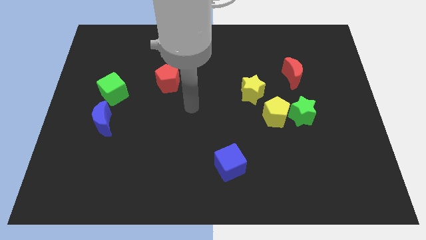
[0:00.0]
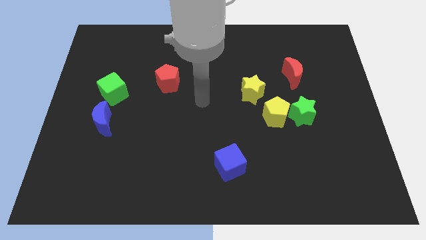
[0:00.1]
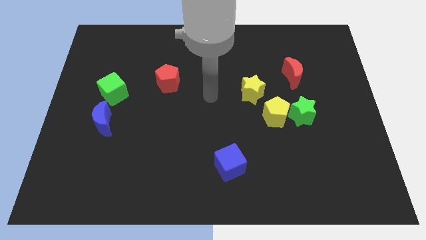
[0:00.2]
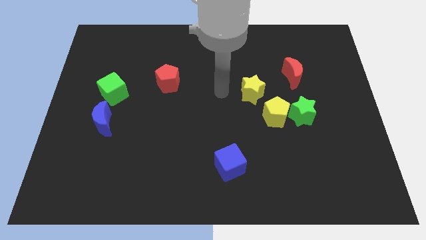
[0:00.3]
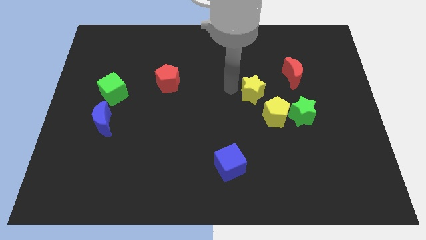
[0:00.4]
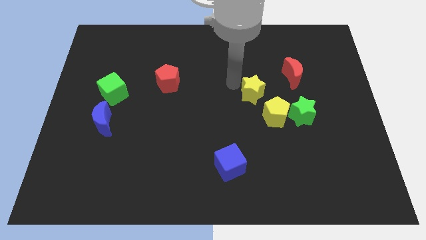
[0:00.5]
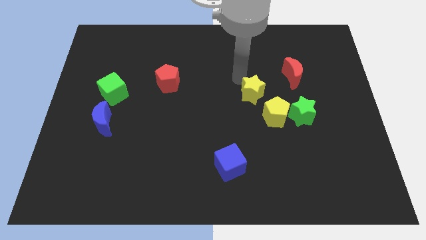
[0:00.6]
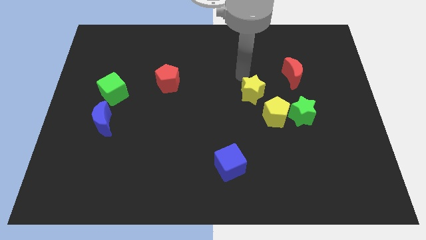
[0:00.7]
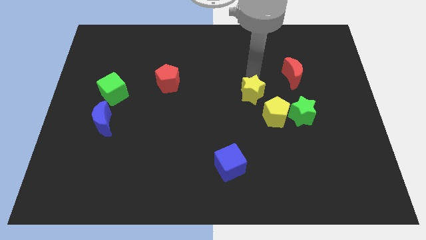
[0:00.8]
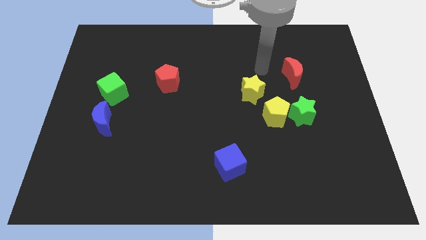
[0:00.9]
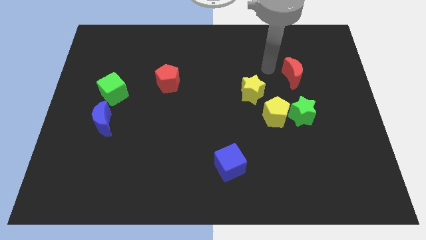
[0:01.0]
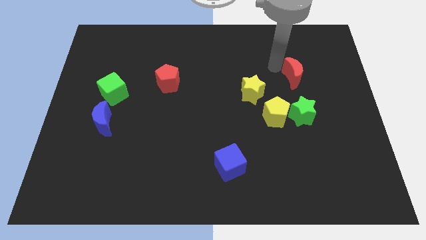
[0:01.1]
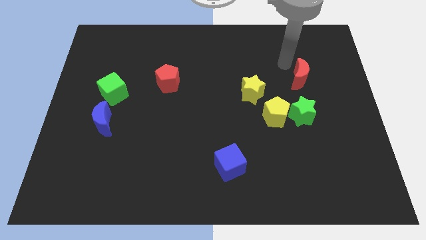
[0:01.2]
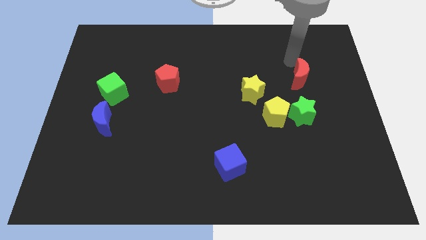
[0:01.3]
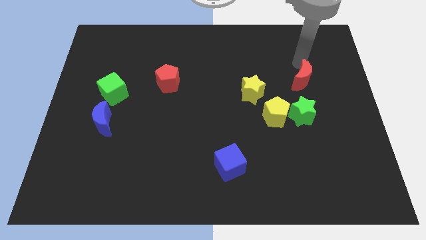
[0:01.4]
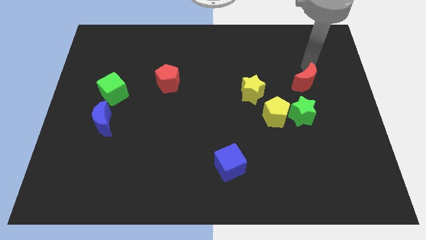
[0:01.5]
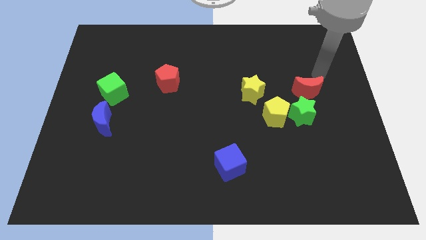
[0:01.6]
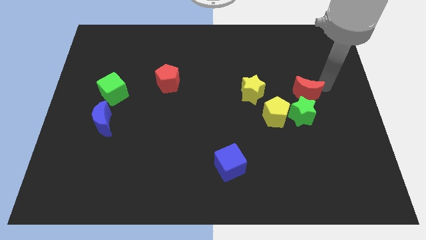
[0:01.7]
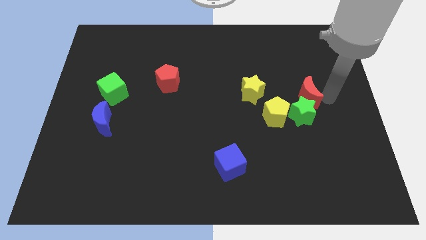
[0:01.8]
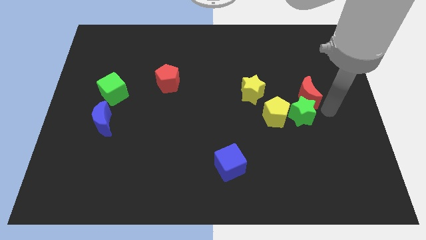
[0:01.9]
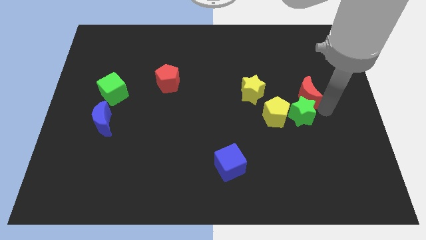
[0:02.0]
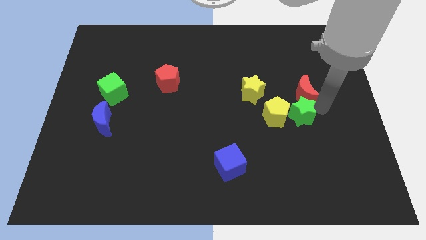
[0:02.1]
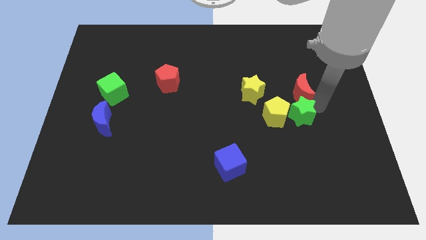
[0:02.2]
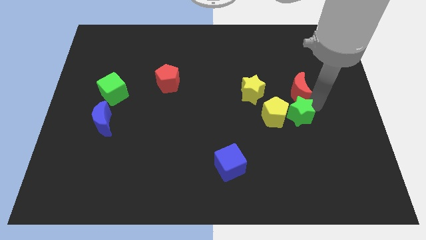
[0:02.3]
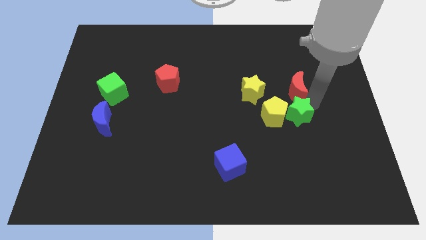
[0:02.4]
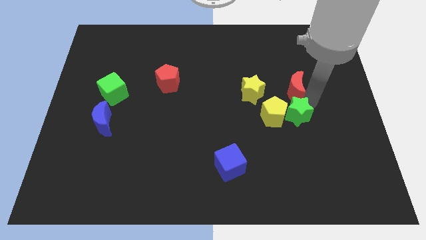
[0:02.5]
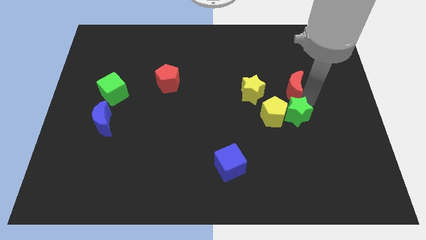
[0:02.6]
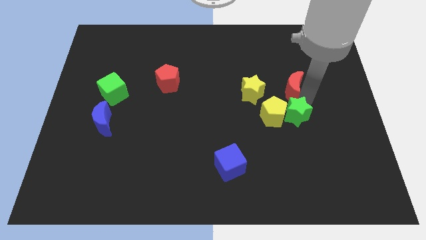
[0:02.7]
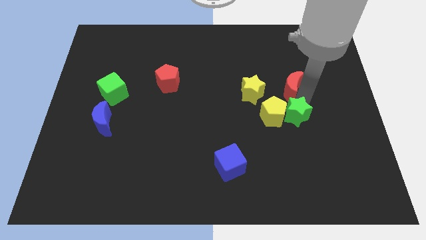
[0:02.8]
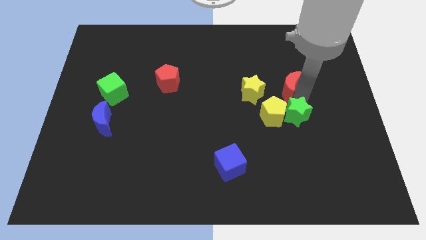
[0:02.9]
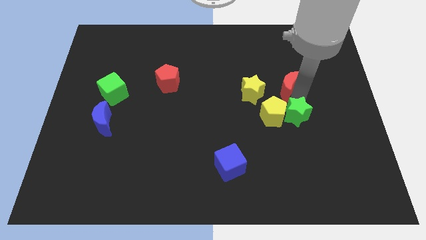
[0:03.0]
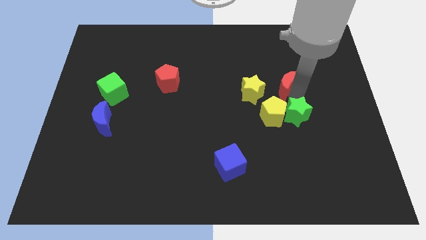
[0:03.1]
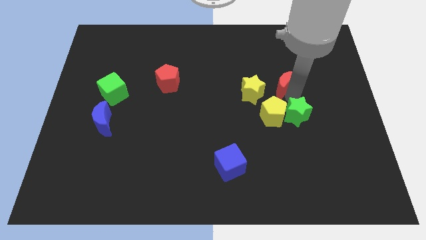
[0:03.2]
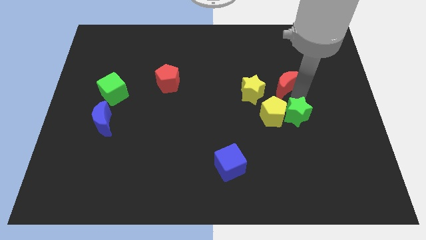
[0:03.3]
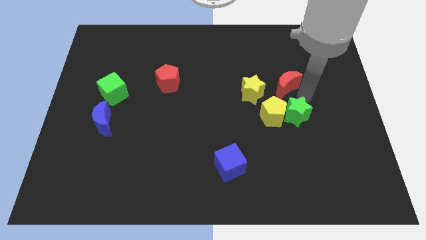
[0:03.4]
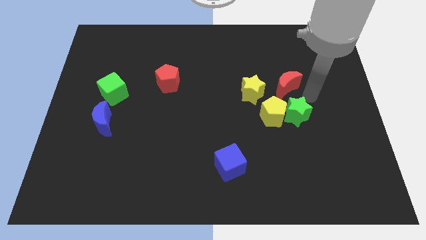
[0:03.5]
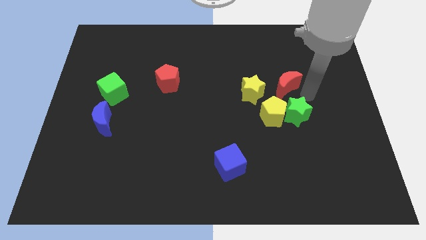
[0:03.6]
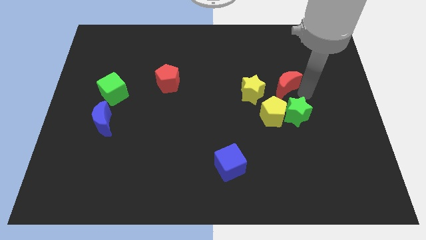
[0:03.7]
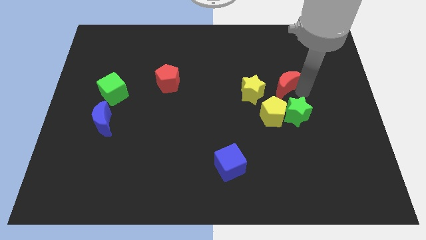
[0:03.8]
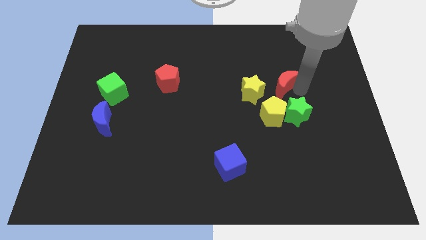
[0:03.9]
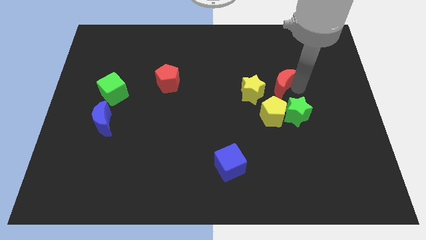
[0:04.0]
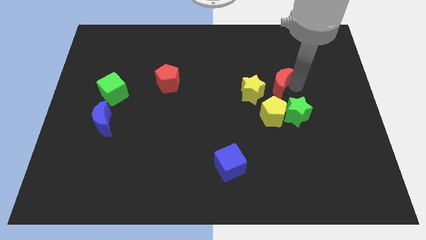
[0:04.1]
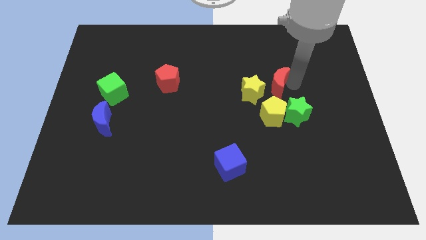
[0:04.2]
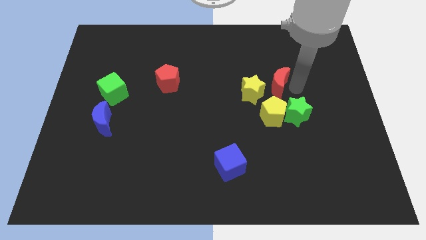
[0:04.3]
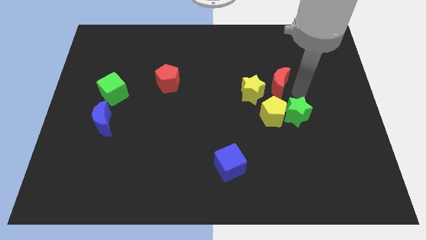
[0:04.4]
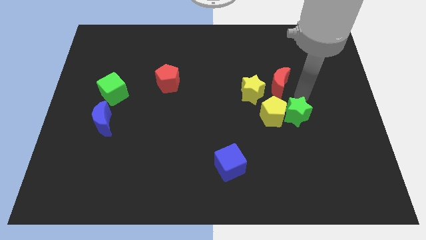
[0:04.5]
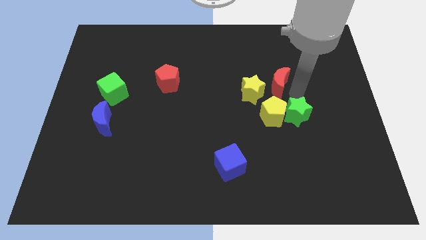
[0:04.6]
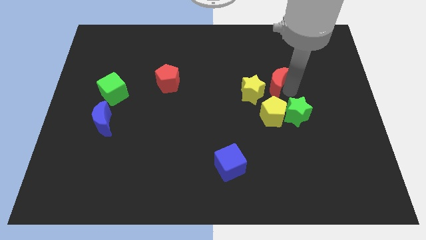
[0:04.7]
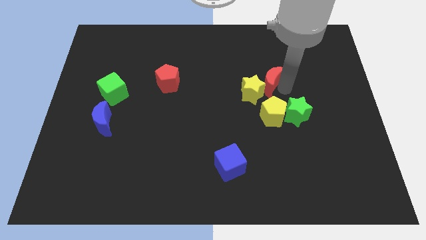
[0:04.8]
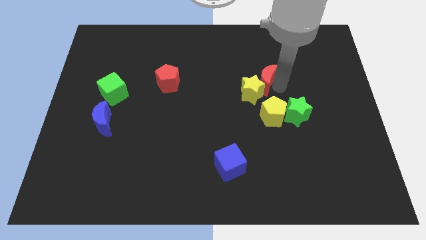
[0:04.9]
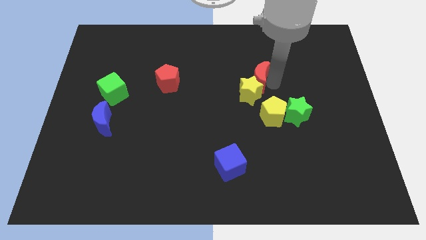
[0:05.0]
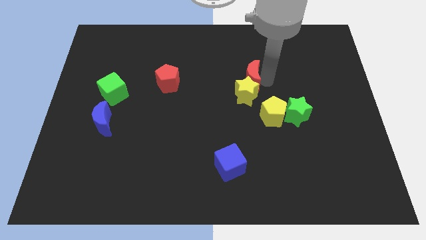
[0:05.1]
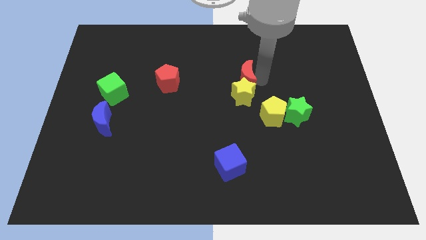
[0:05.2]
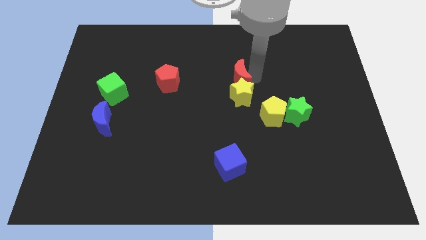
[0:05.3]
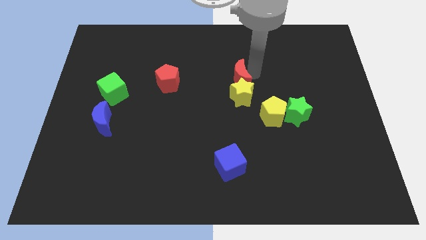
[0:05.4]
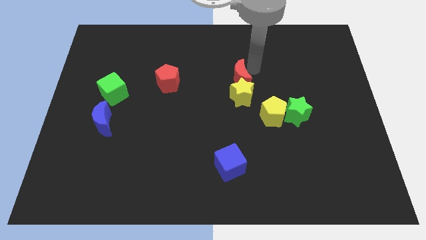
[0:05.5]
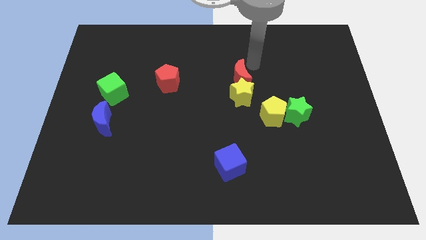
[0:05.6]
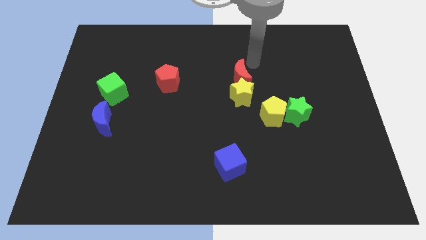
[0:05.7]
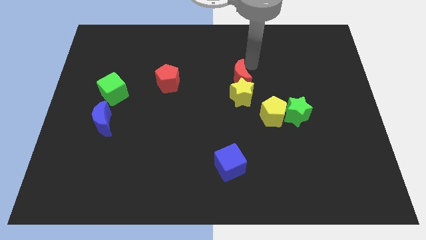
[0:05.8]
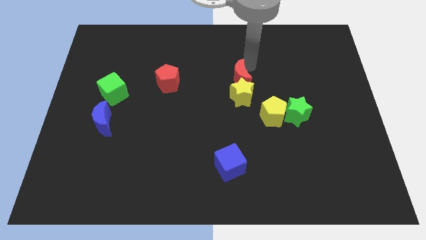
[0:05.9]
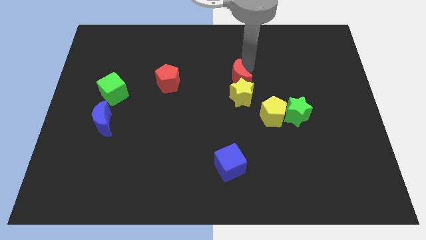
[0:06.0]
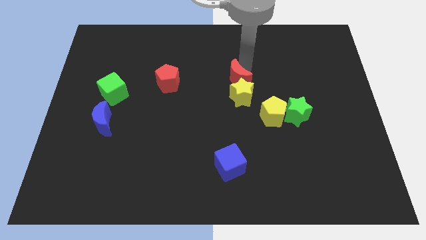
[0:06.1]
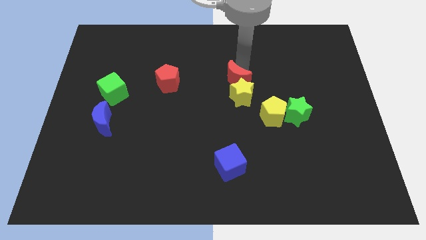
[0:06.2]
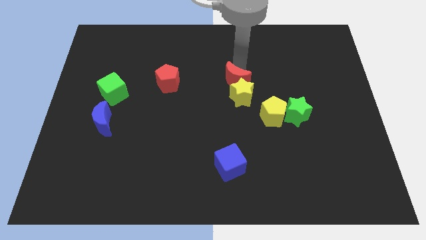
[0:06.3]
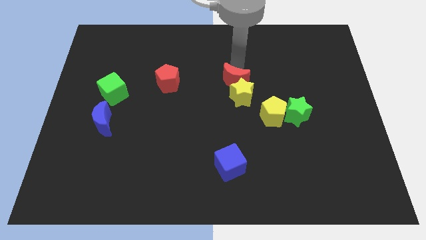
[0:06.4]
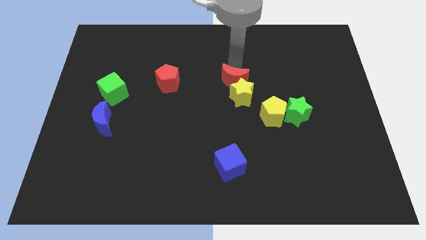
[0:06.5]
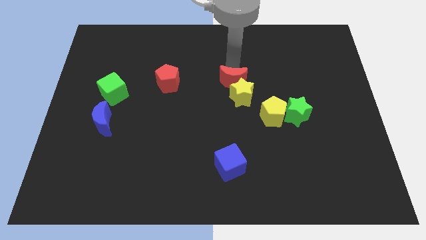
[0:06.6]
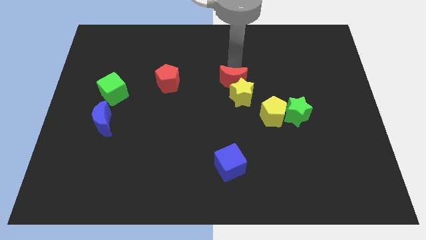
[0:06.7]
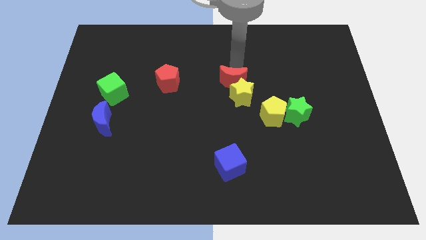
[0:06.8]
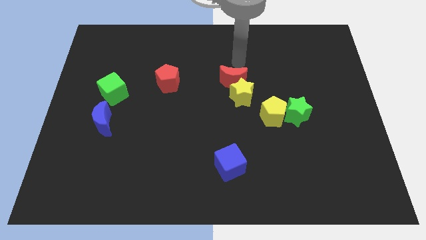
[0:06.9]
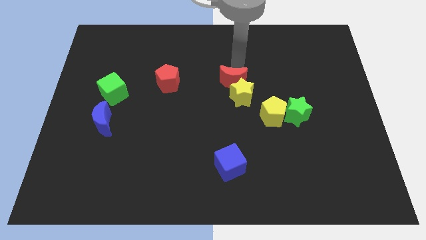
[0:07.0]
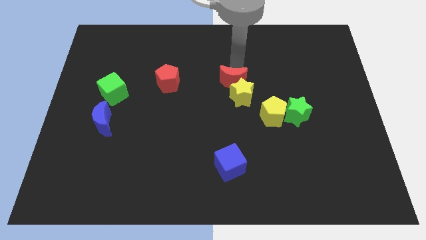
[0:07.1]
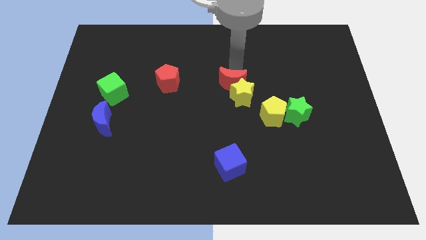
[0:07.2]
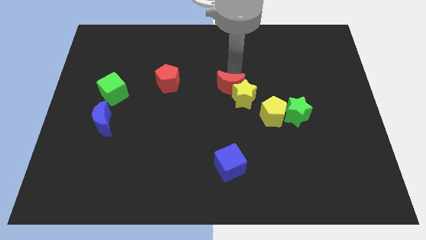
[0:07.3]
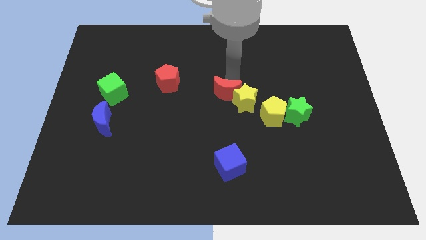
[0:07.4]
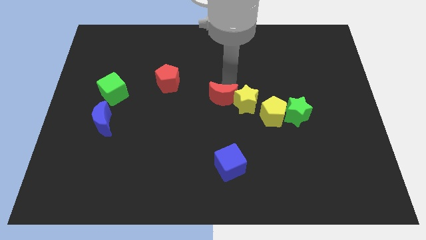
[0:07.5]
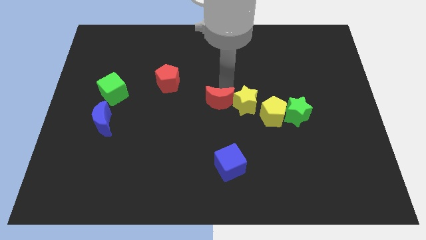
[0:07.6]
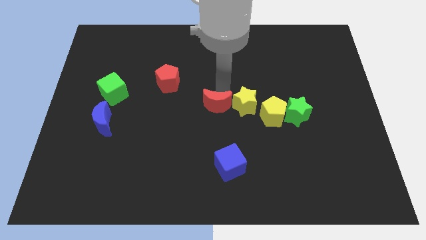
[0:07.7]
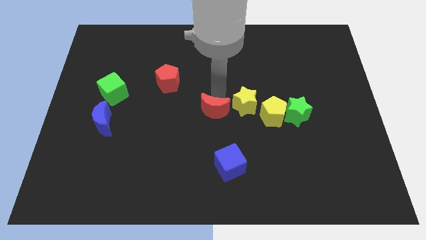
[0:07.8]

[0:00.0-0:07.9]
push the red moon diagonally down and to the left

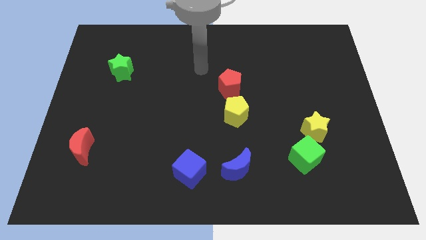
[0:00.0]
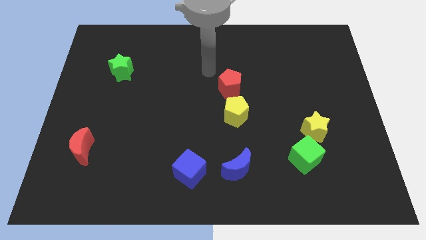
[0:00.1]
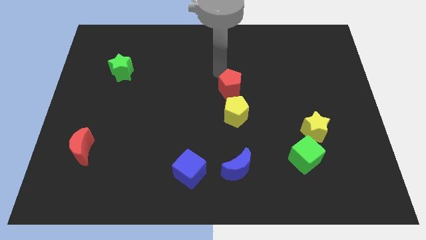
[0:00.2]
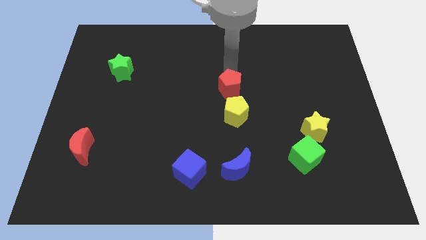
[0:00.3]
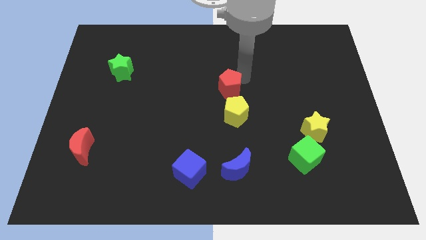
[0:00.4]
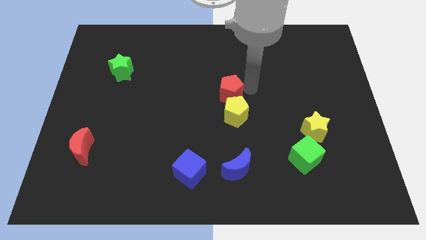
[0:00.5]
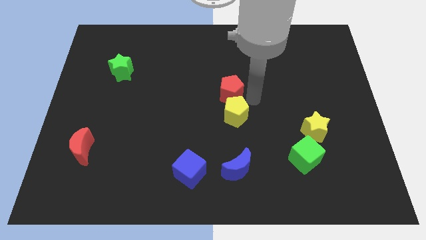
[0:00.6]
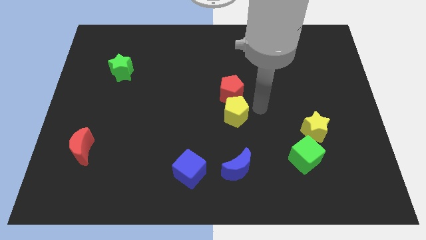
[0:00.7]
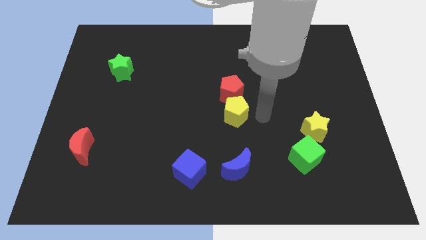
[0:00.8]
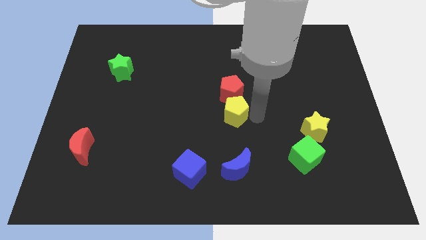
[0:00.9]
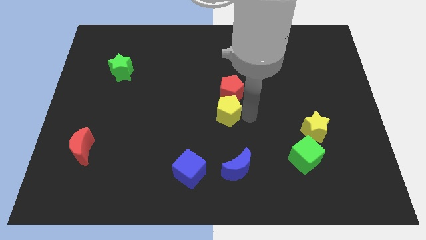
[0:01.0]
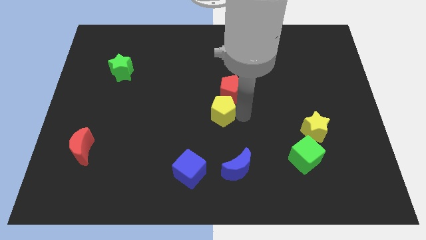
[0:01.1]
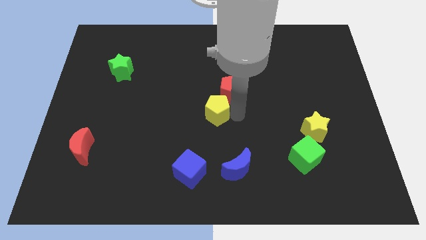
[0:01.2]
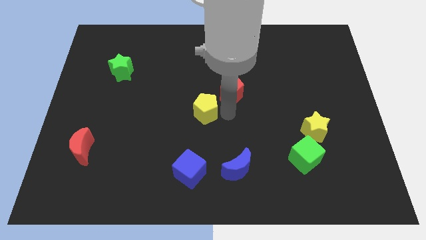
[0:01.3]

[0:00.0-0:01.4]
push the yellow pentagon somewhat to the left
